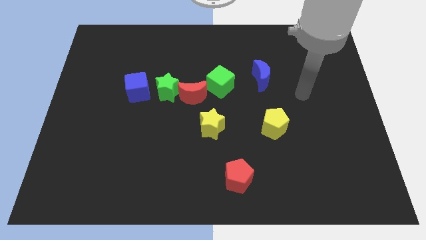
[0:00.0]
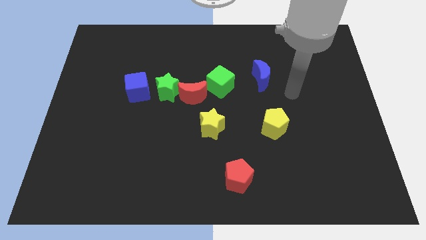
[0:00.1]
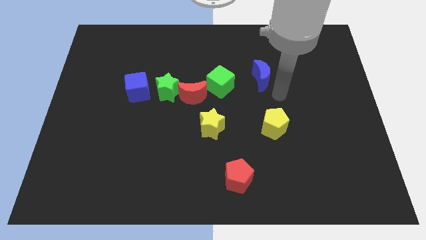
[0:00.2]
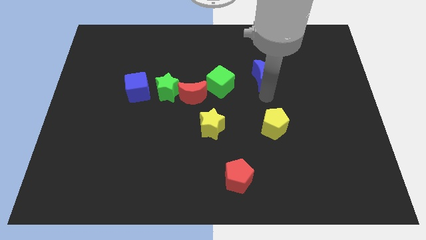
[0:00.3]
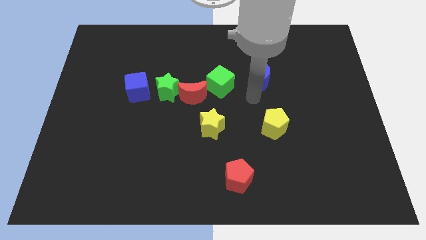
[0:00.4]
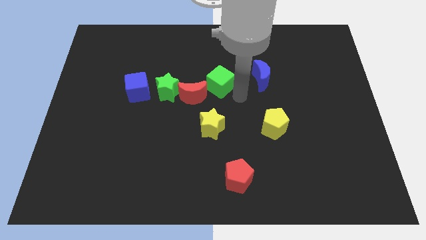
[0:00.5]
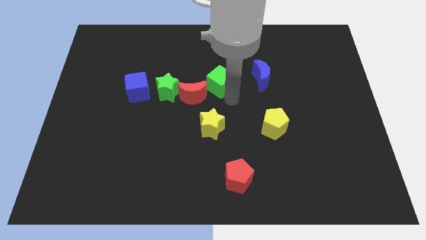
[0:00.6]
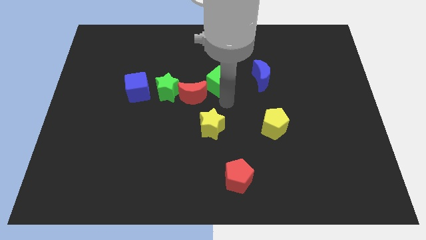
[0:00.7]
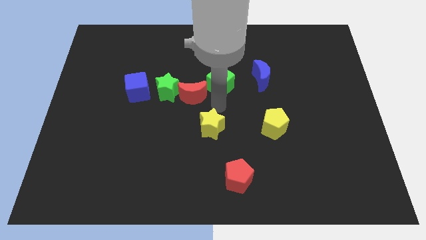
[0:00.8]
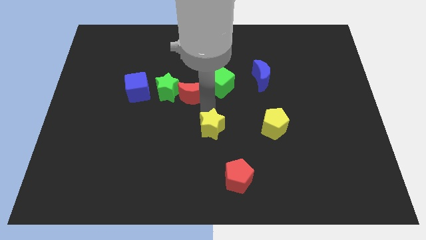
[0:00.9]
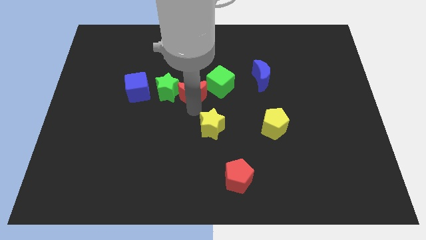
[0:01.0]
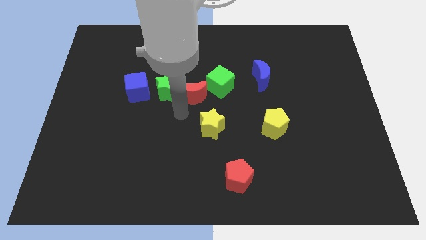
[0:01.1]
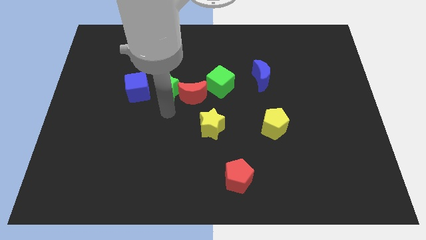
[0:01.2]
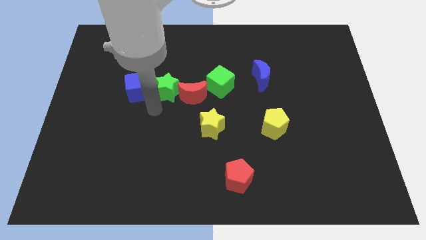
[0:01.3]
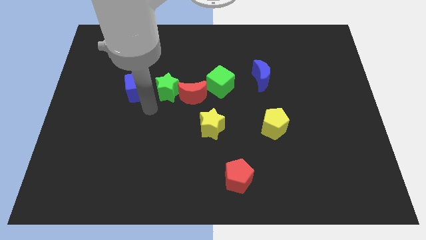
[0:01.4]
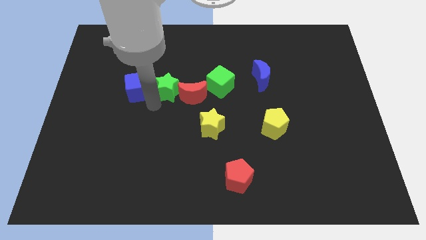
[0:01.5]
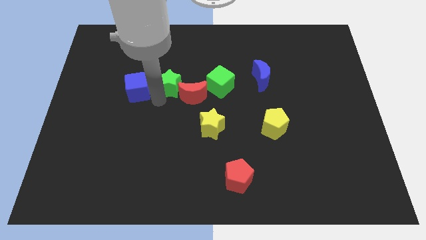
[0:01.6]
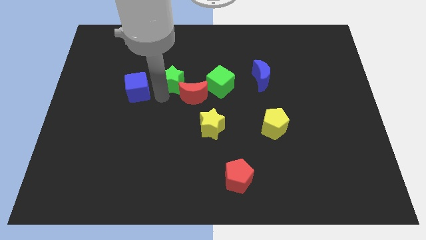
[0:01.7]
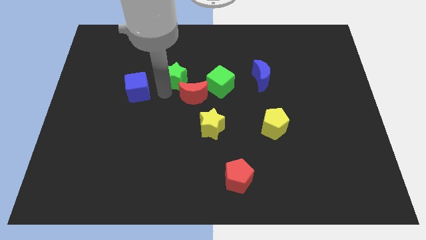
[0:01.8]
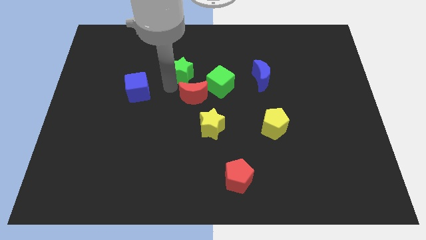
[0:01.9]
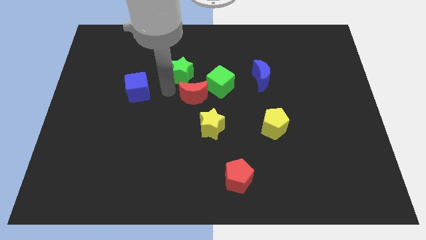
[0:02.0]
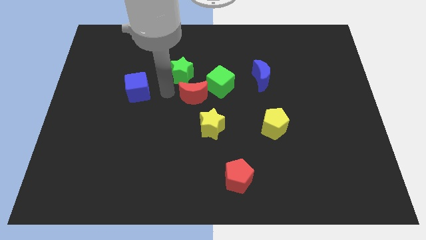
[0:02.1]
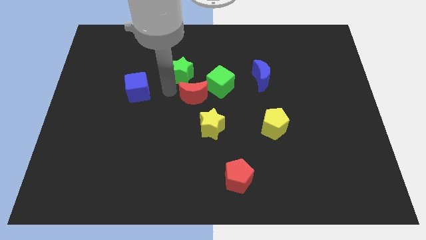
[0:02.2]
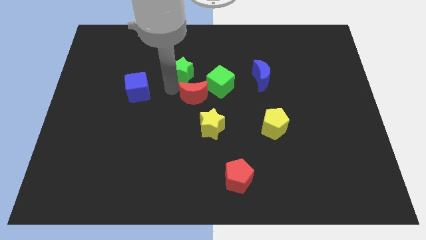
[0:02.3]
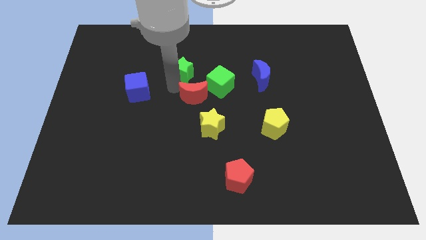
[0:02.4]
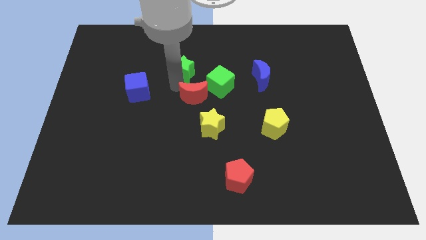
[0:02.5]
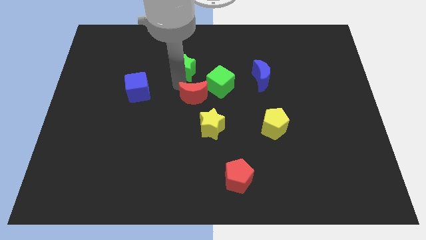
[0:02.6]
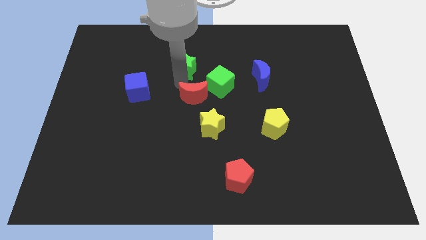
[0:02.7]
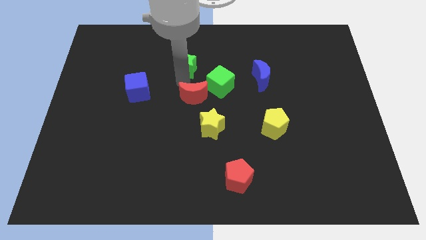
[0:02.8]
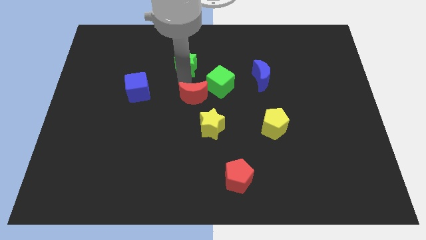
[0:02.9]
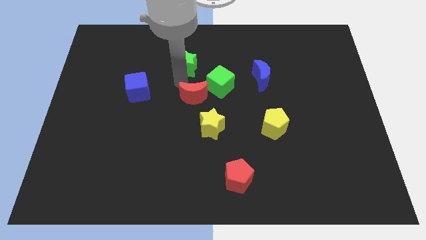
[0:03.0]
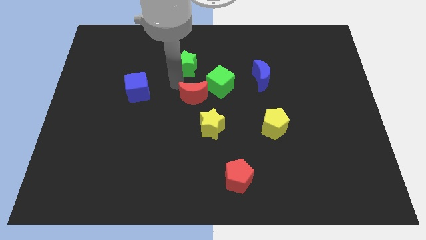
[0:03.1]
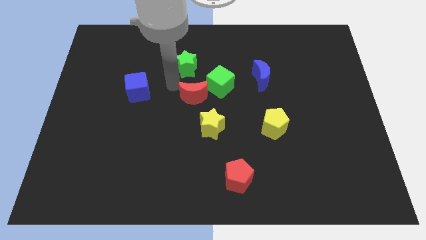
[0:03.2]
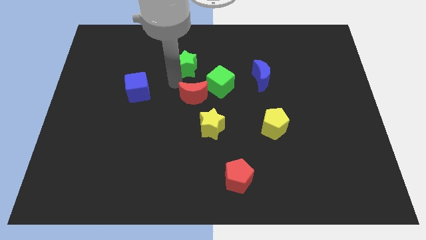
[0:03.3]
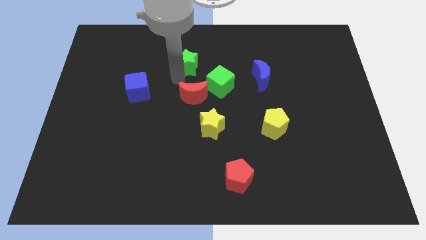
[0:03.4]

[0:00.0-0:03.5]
move the green star away from the red moon and blue cube

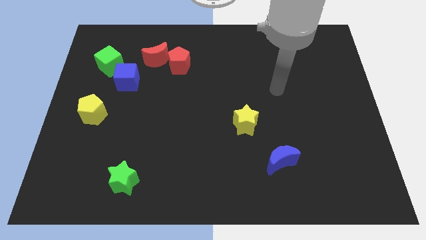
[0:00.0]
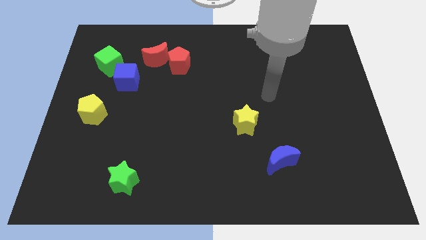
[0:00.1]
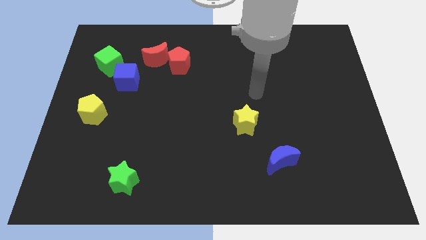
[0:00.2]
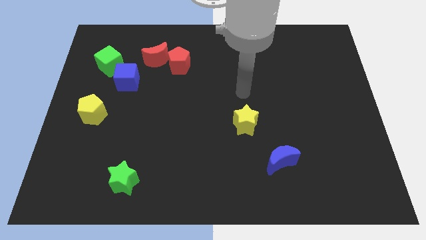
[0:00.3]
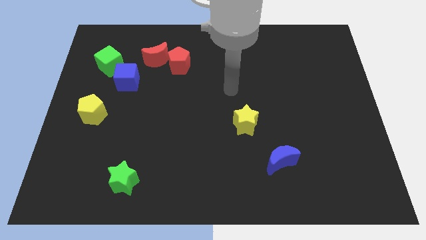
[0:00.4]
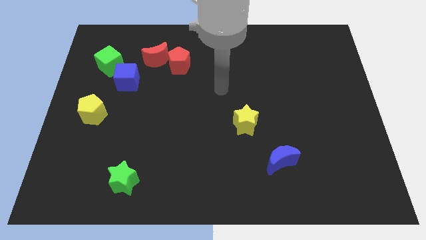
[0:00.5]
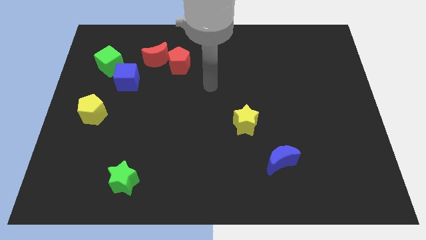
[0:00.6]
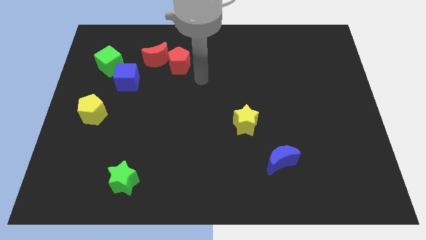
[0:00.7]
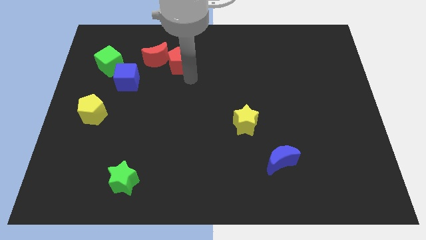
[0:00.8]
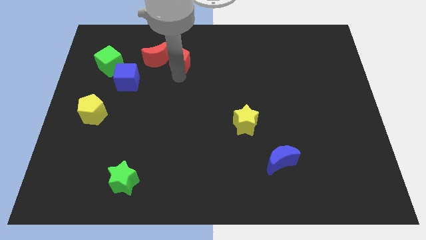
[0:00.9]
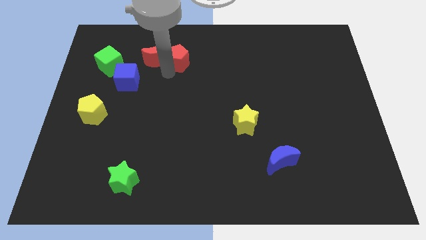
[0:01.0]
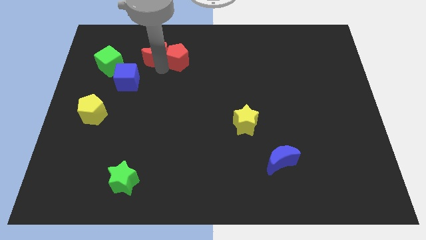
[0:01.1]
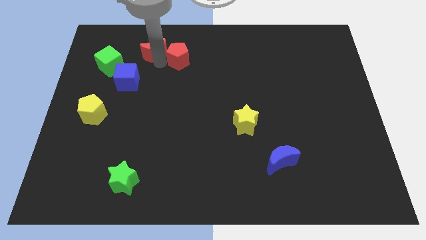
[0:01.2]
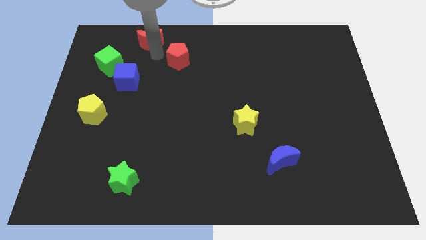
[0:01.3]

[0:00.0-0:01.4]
separate the red pentagon from the red moon

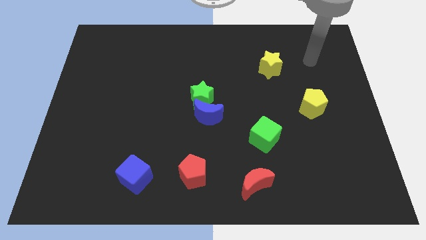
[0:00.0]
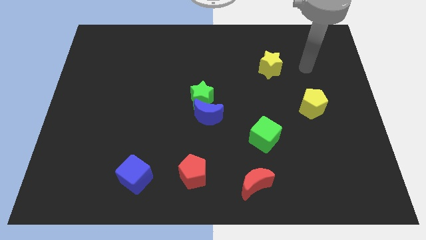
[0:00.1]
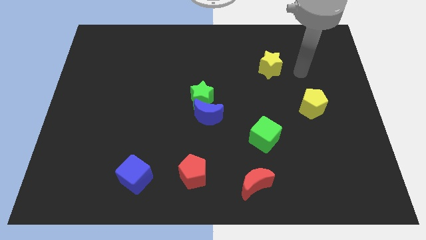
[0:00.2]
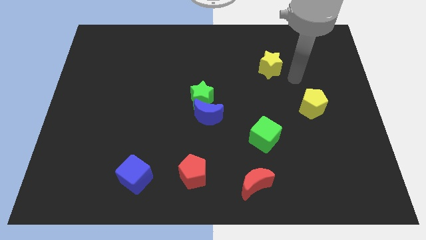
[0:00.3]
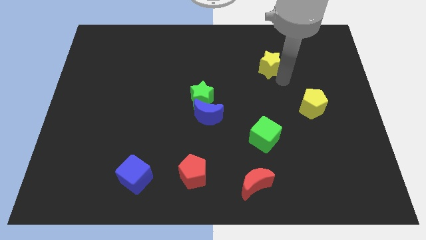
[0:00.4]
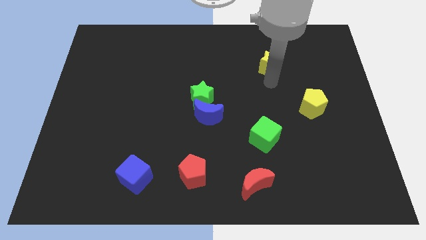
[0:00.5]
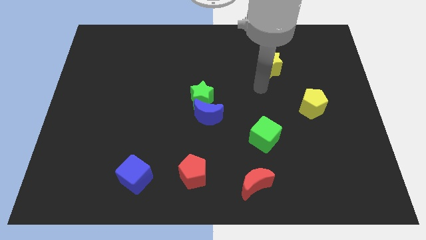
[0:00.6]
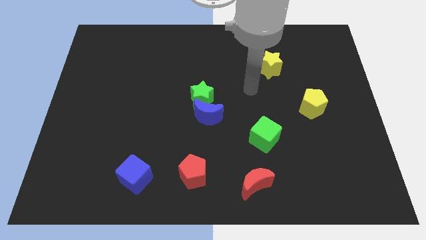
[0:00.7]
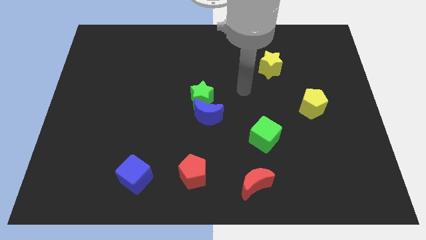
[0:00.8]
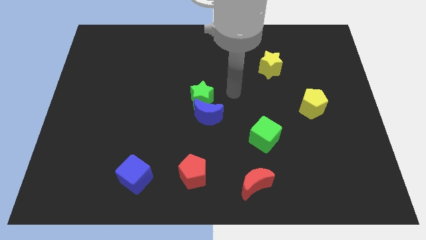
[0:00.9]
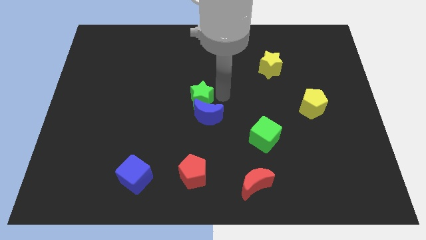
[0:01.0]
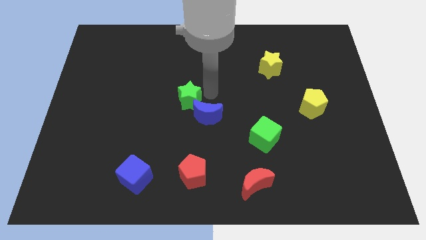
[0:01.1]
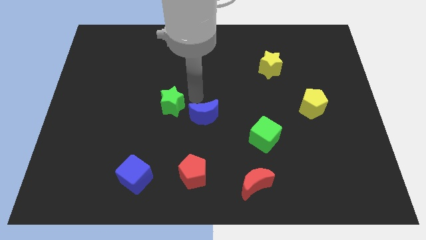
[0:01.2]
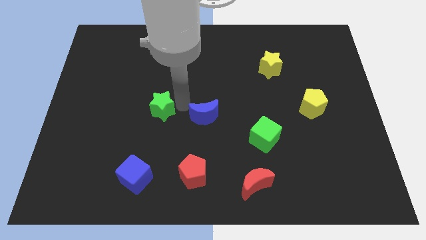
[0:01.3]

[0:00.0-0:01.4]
pull the blue moon apart from the green star

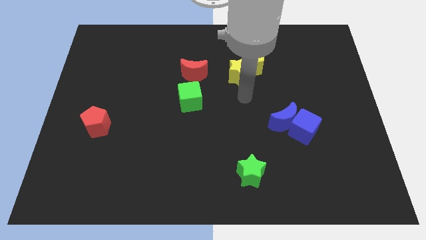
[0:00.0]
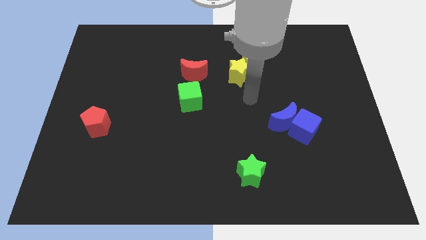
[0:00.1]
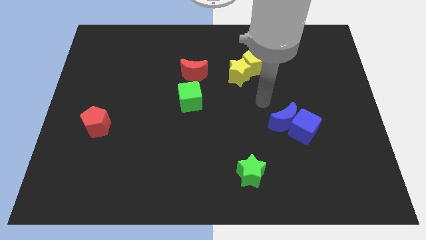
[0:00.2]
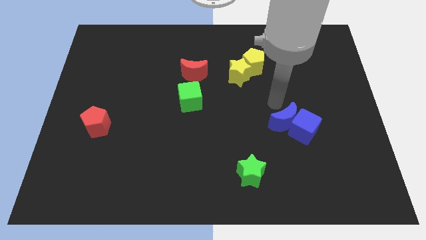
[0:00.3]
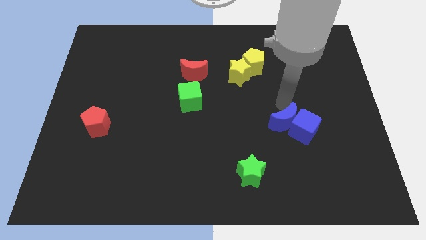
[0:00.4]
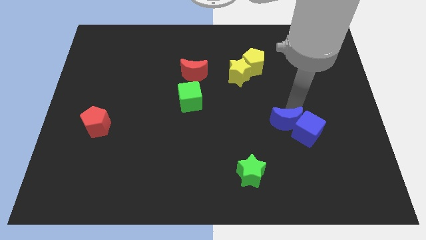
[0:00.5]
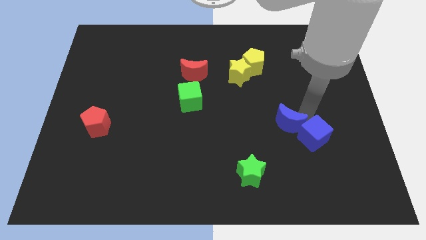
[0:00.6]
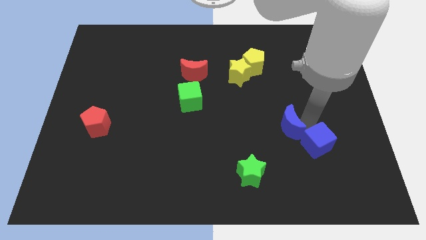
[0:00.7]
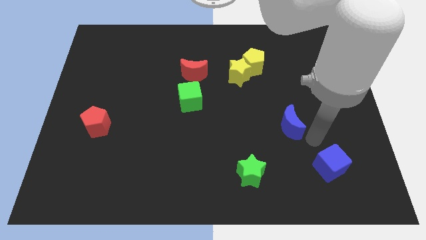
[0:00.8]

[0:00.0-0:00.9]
separate the blue moon from the blue cube

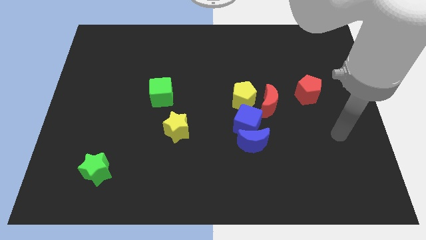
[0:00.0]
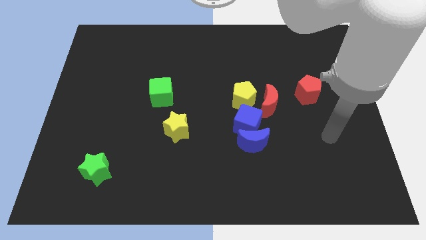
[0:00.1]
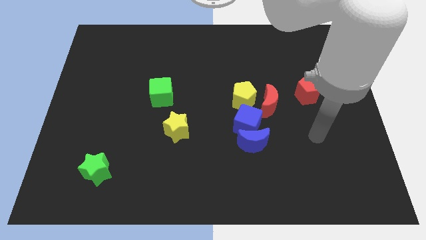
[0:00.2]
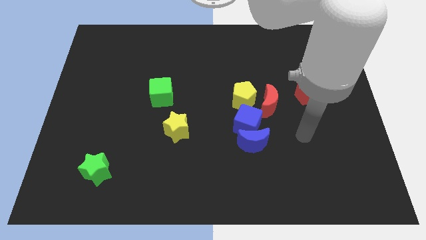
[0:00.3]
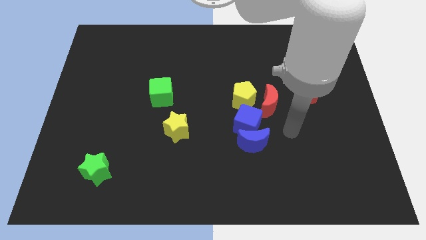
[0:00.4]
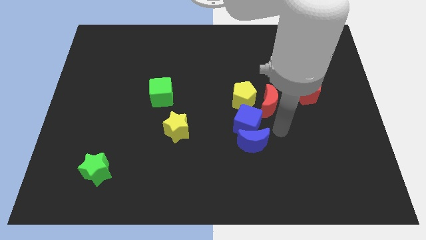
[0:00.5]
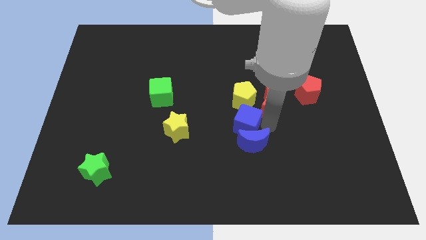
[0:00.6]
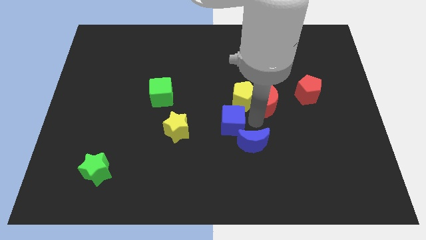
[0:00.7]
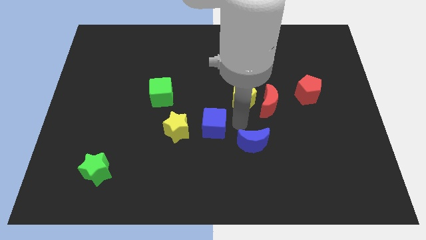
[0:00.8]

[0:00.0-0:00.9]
pull the blue moon apart from the blue cube

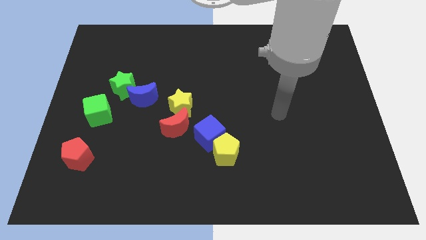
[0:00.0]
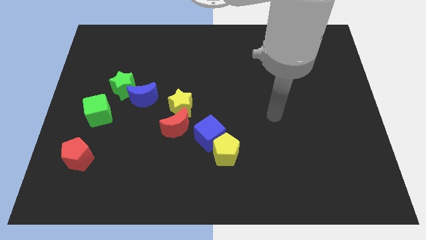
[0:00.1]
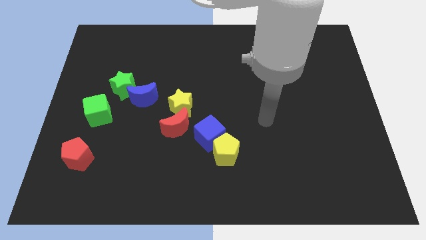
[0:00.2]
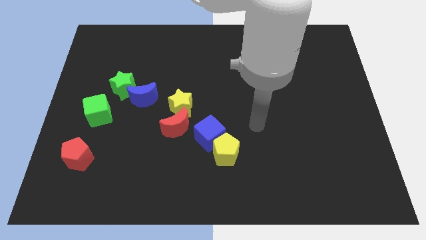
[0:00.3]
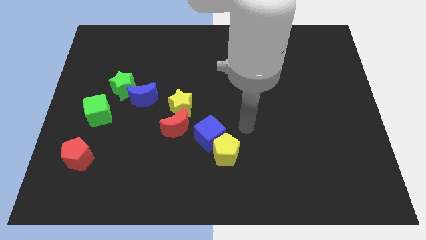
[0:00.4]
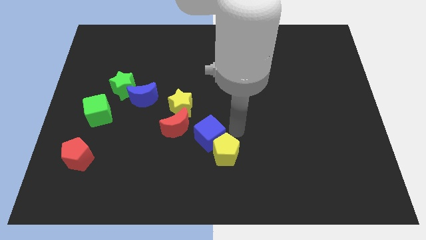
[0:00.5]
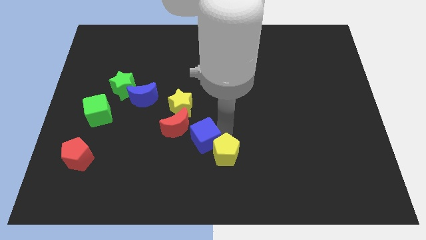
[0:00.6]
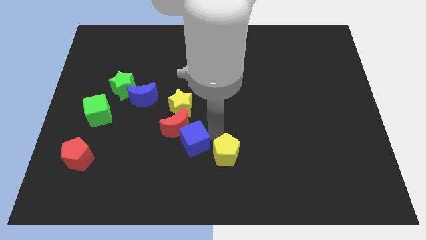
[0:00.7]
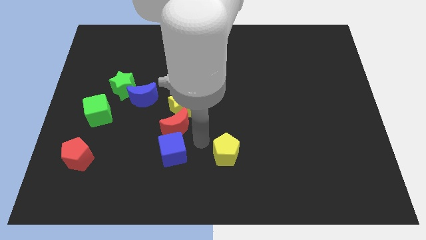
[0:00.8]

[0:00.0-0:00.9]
move the yellow pentagon away from the blue cube

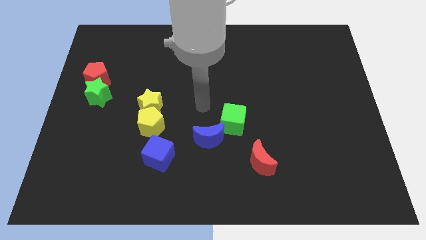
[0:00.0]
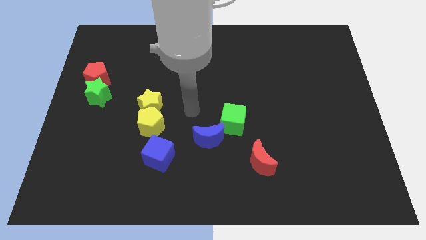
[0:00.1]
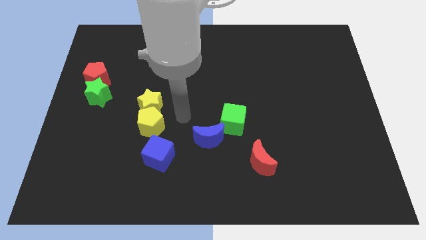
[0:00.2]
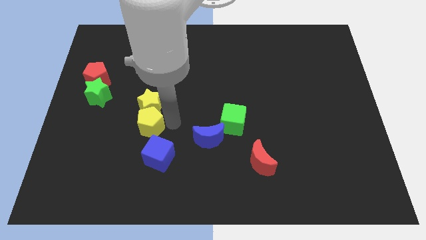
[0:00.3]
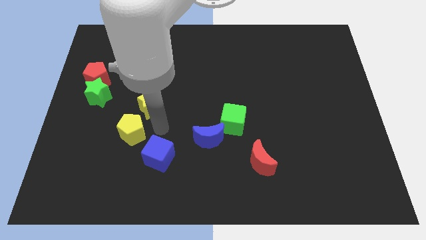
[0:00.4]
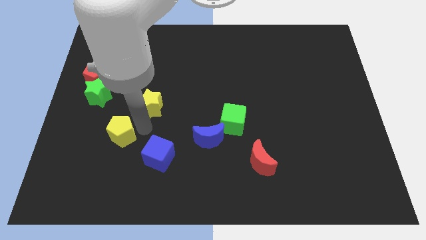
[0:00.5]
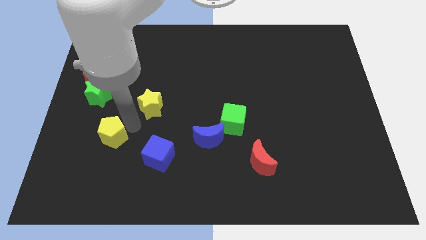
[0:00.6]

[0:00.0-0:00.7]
pull the yellow star apart from the yellow pentagon
